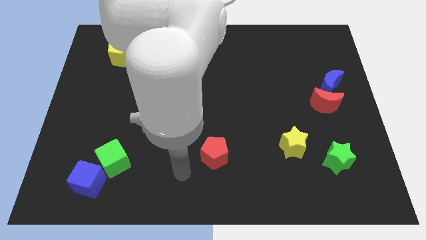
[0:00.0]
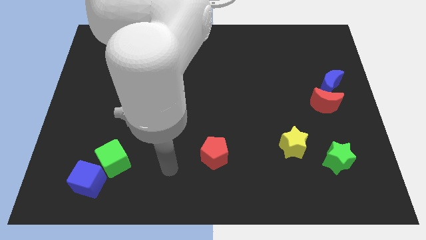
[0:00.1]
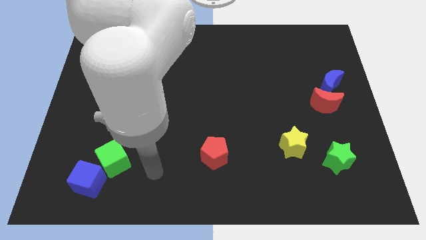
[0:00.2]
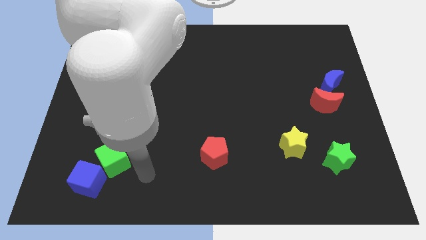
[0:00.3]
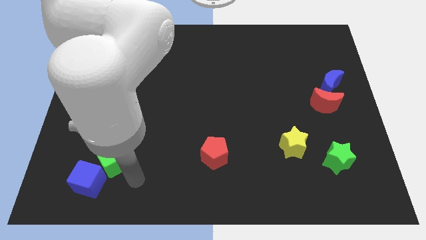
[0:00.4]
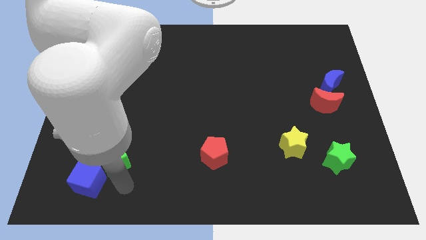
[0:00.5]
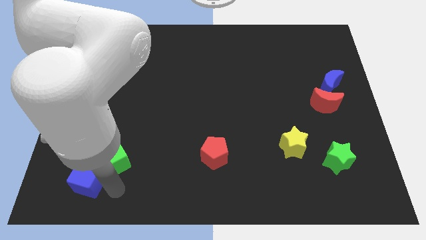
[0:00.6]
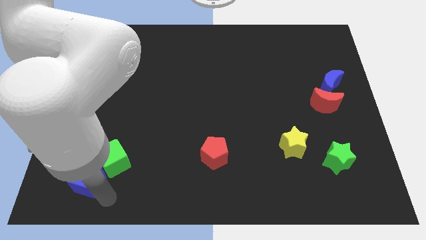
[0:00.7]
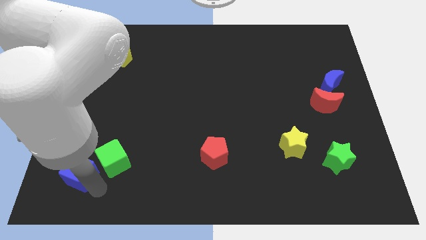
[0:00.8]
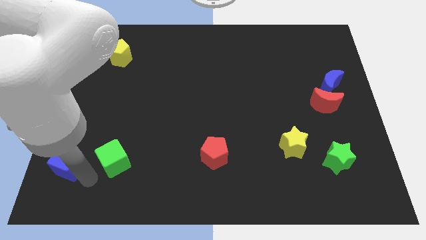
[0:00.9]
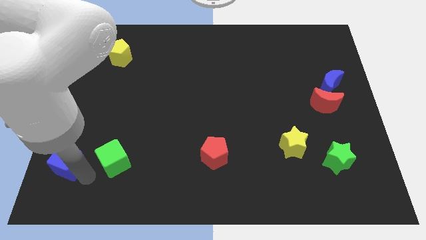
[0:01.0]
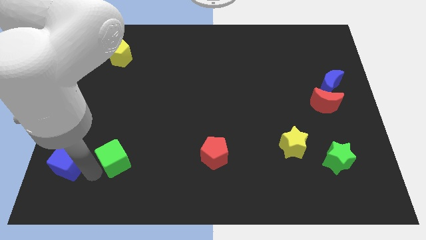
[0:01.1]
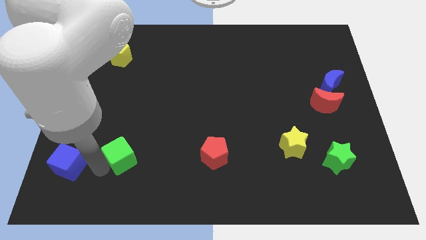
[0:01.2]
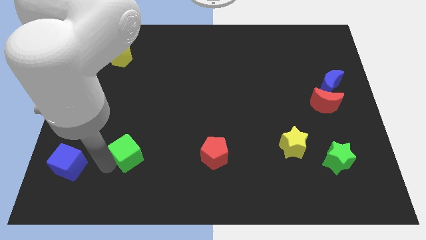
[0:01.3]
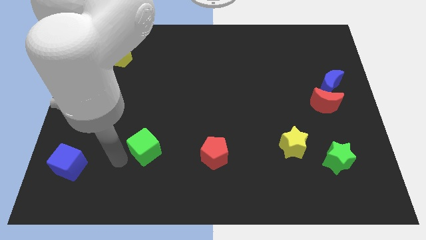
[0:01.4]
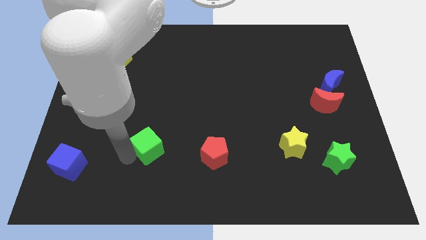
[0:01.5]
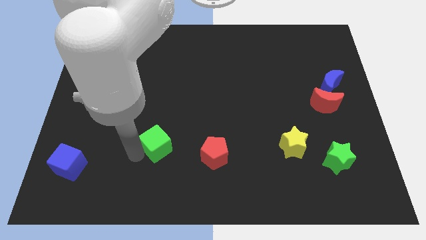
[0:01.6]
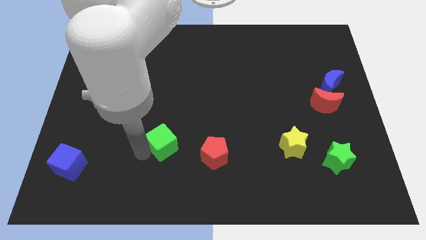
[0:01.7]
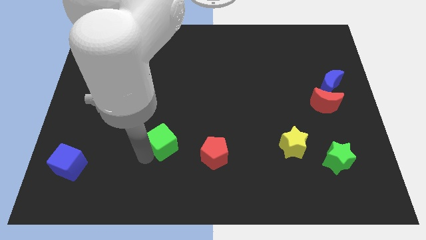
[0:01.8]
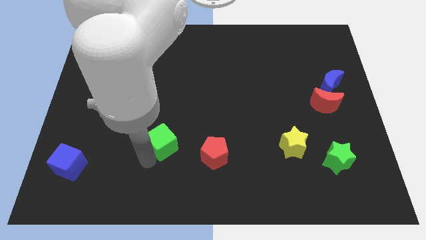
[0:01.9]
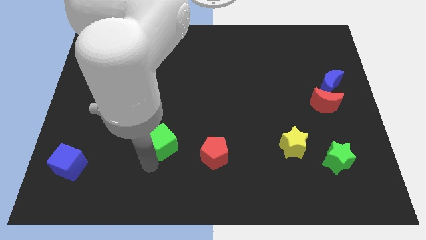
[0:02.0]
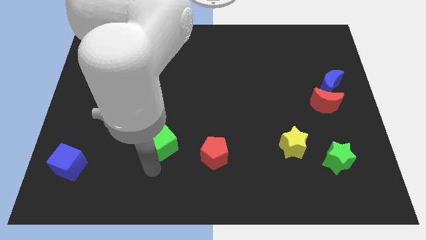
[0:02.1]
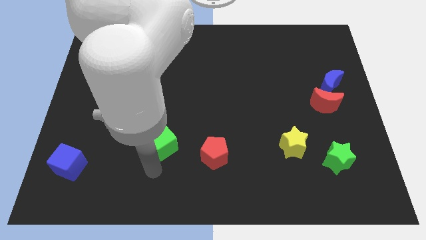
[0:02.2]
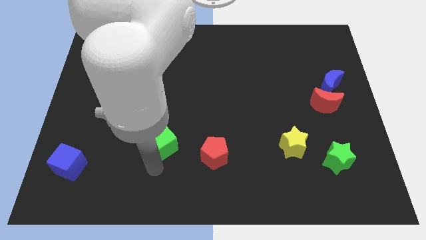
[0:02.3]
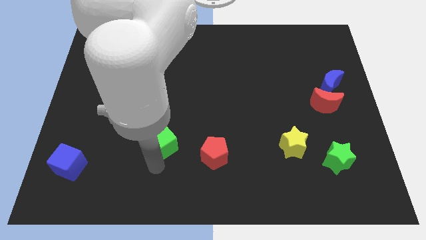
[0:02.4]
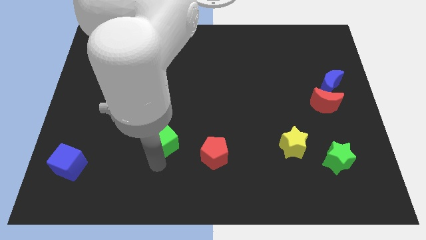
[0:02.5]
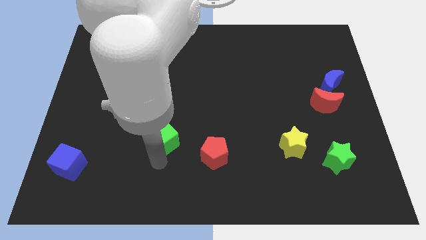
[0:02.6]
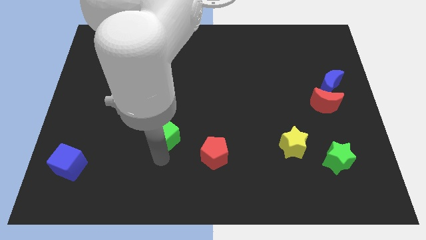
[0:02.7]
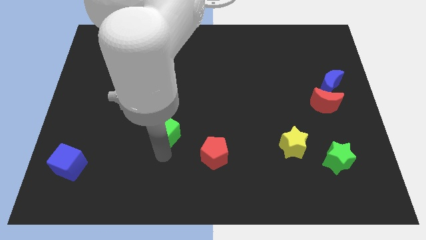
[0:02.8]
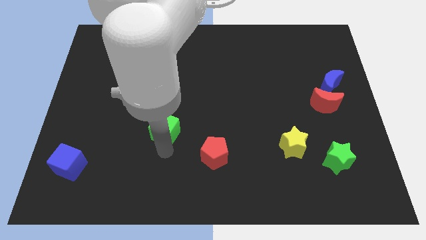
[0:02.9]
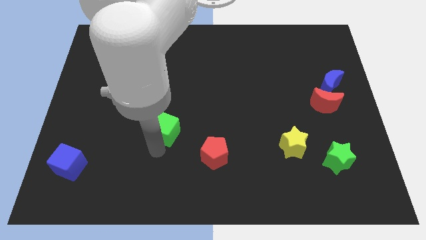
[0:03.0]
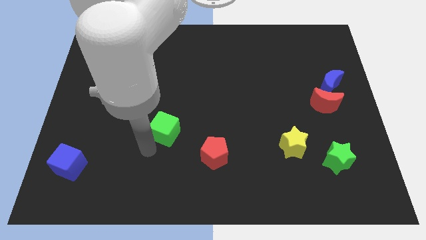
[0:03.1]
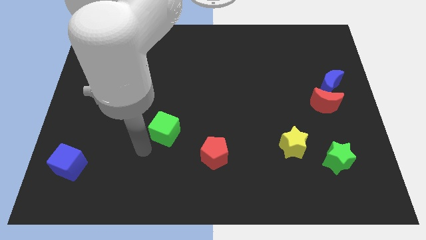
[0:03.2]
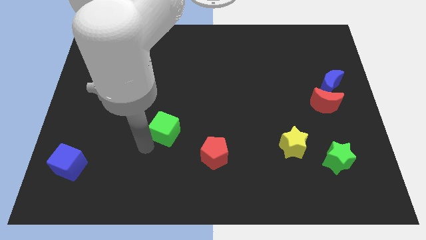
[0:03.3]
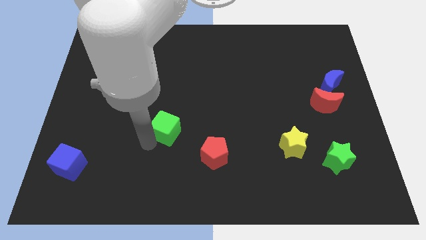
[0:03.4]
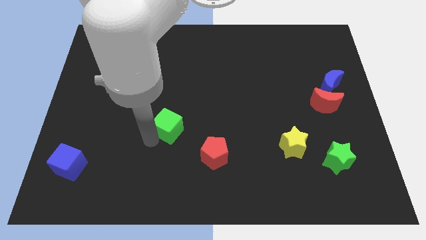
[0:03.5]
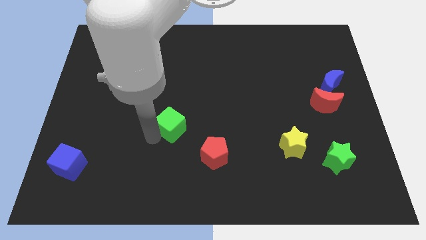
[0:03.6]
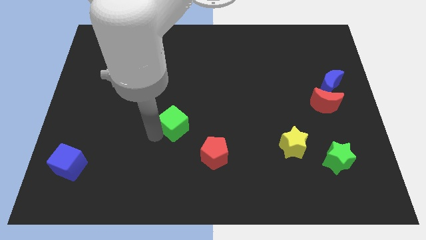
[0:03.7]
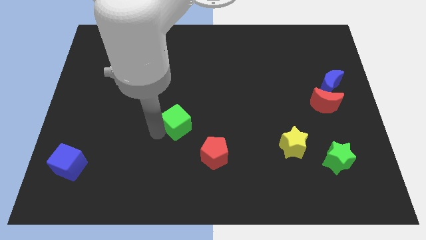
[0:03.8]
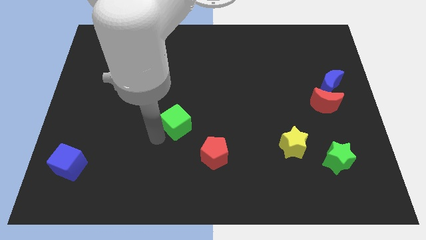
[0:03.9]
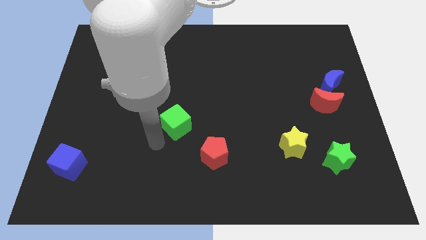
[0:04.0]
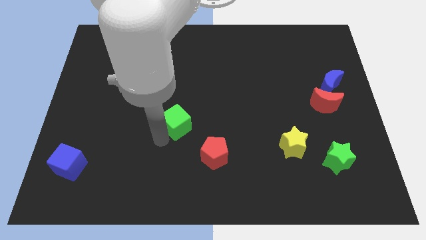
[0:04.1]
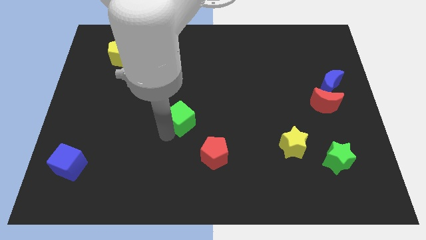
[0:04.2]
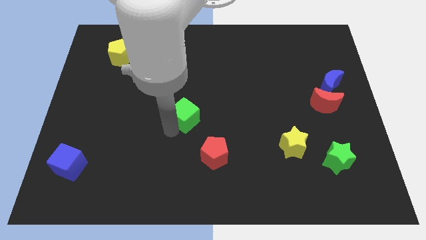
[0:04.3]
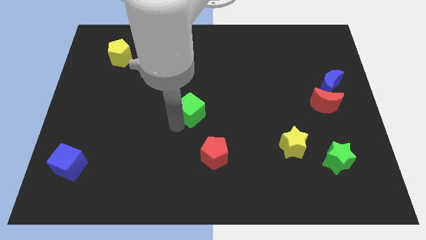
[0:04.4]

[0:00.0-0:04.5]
slide the green cube up and right diagonally

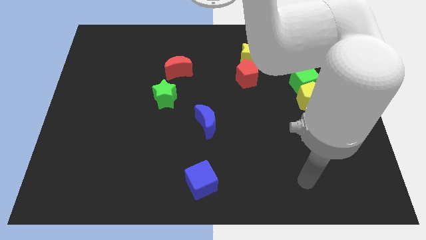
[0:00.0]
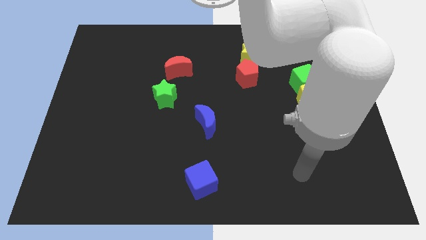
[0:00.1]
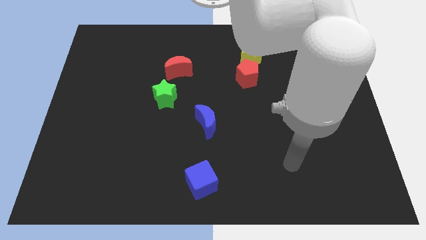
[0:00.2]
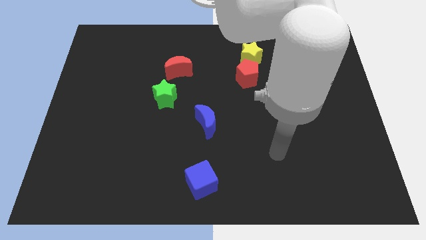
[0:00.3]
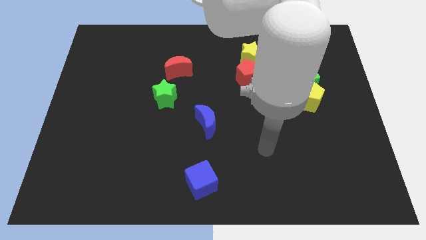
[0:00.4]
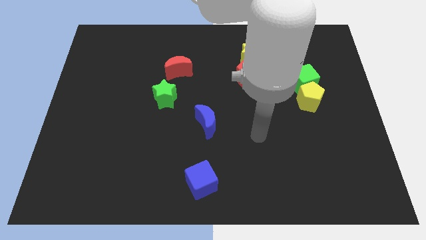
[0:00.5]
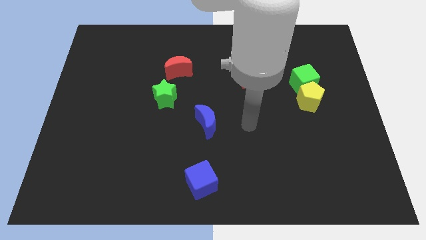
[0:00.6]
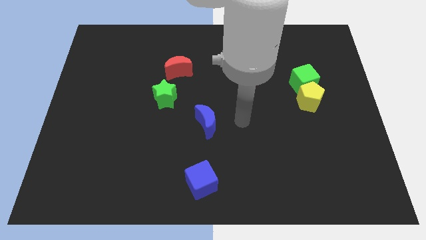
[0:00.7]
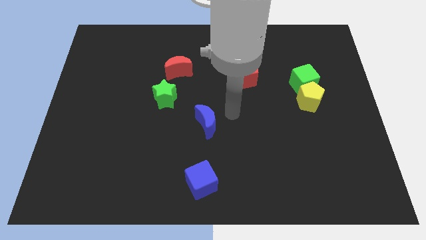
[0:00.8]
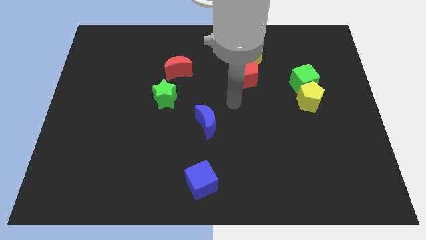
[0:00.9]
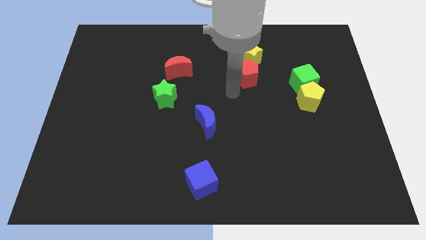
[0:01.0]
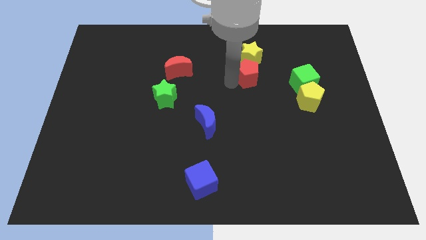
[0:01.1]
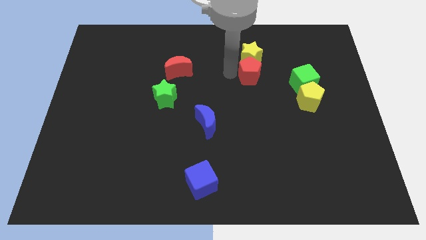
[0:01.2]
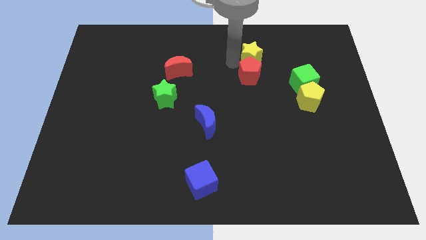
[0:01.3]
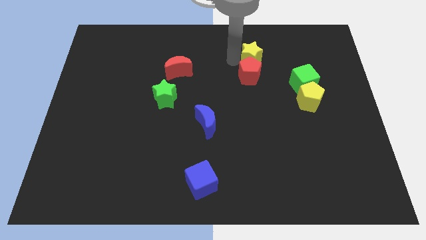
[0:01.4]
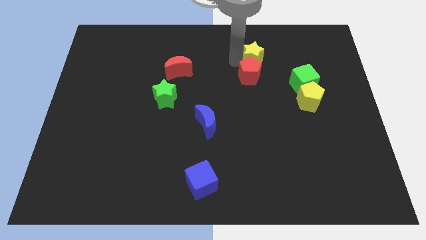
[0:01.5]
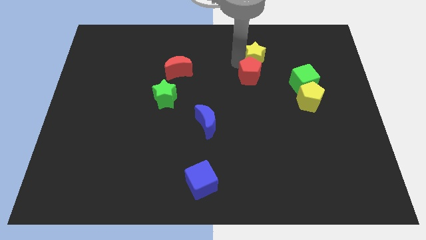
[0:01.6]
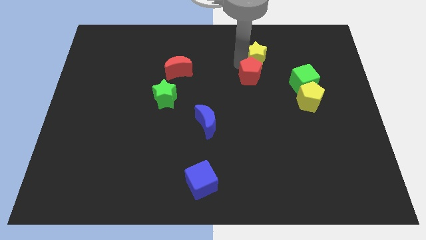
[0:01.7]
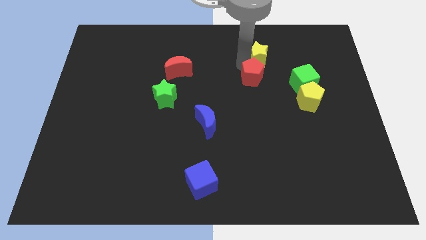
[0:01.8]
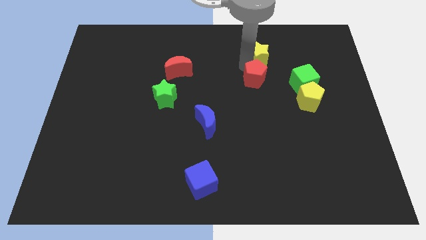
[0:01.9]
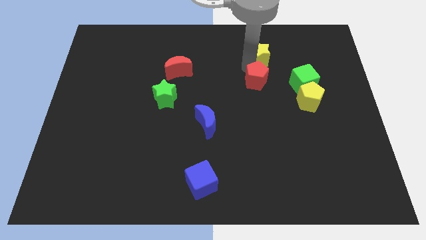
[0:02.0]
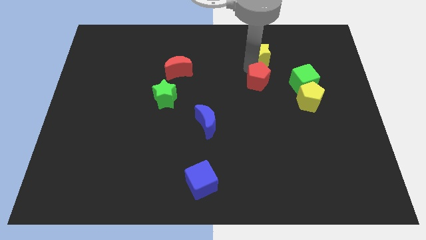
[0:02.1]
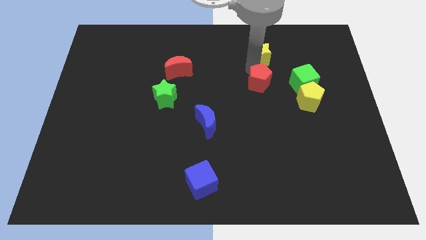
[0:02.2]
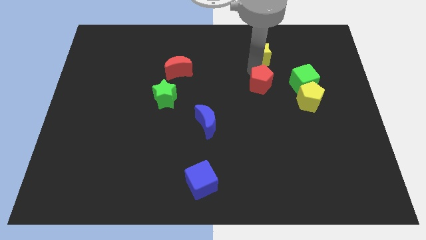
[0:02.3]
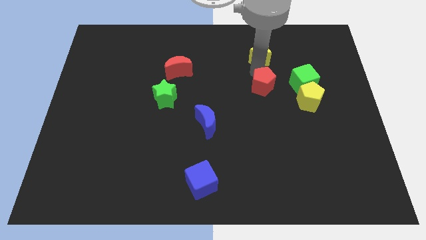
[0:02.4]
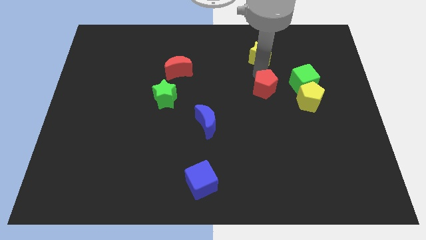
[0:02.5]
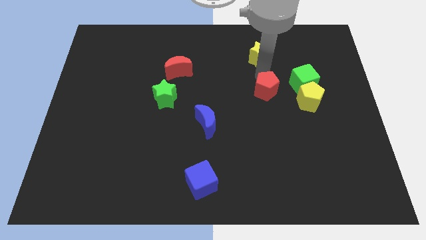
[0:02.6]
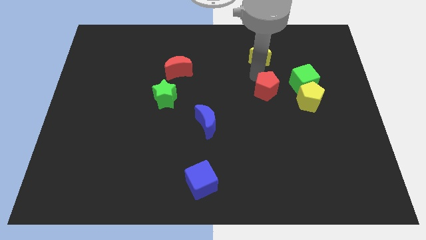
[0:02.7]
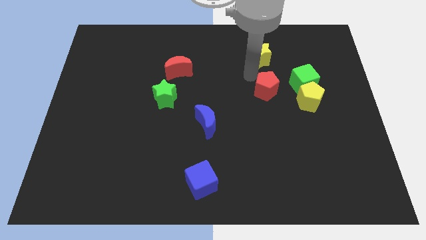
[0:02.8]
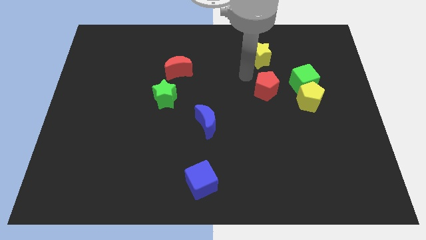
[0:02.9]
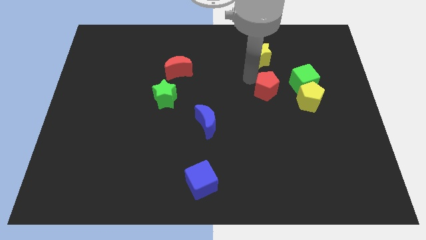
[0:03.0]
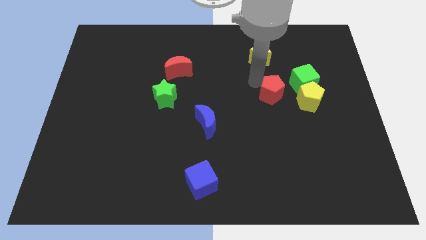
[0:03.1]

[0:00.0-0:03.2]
slightly move the red pentagon down and to the right
